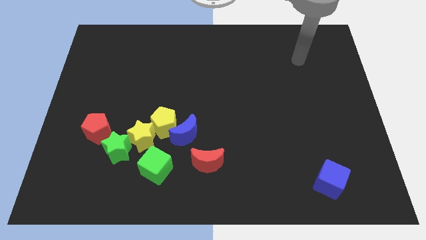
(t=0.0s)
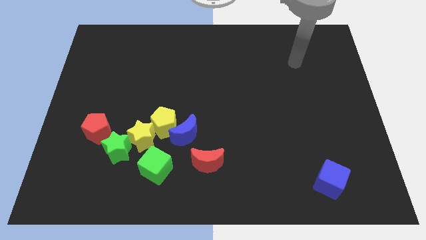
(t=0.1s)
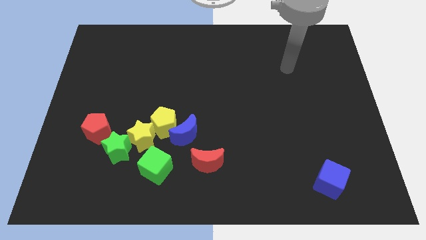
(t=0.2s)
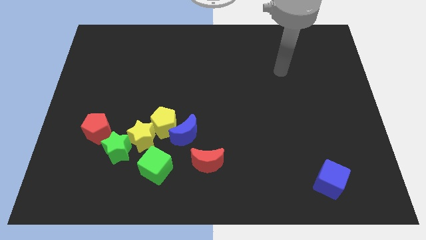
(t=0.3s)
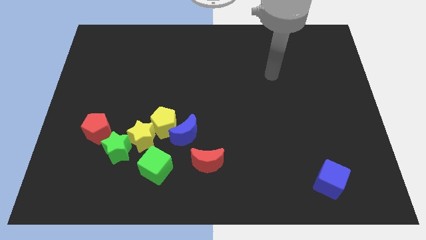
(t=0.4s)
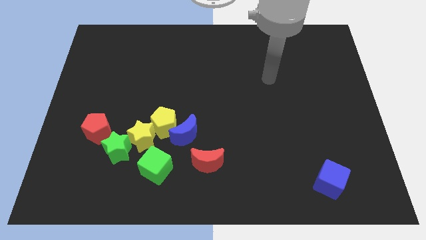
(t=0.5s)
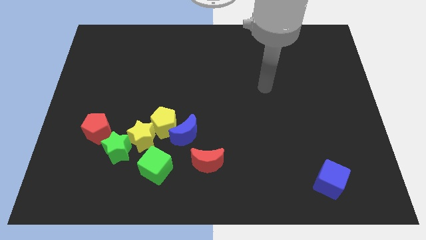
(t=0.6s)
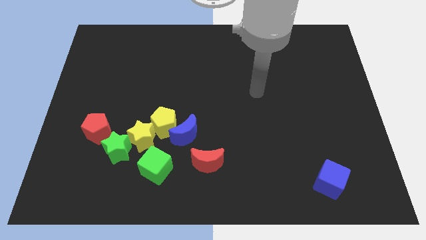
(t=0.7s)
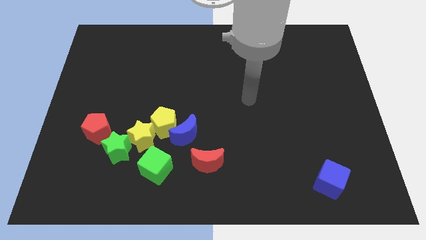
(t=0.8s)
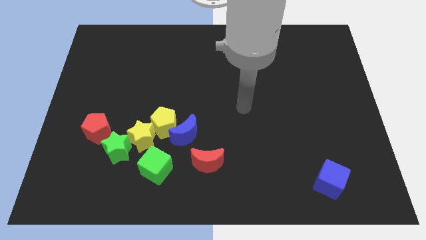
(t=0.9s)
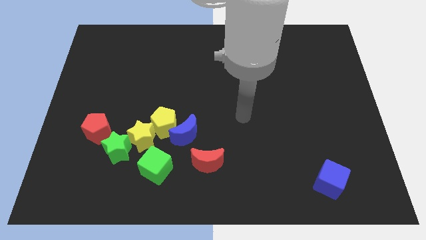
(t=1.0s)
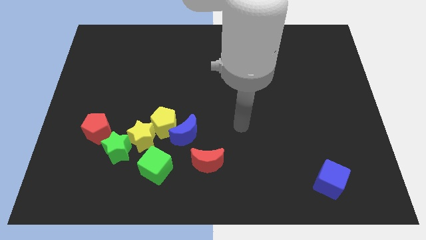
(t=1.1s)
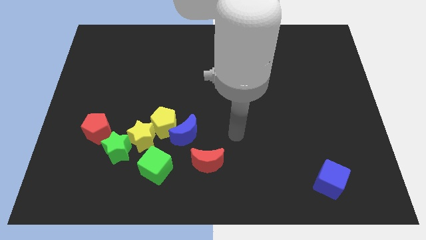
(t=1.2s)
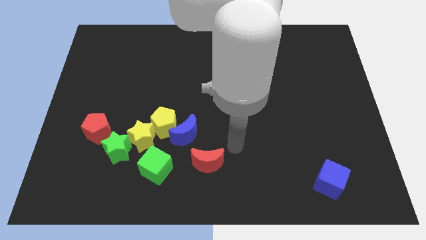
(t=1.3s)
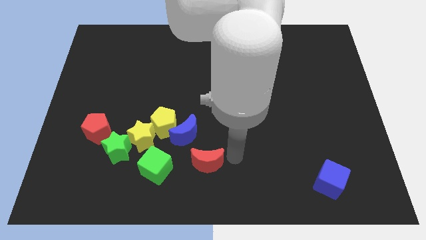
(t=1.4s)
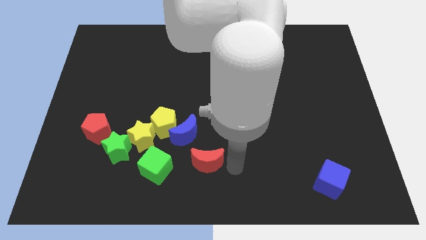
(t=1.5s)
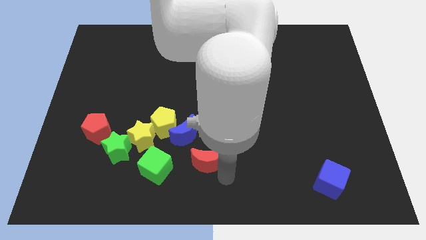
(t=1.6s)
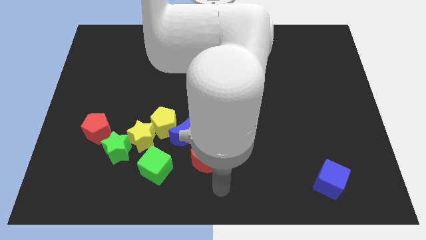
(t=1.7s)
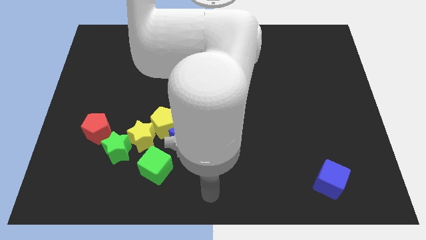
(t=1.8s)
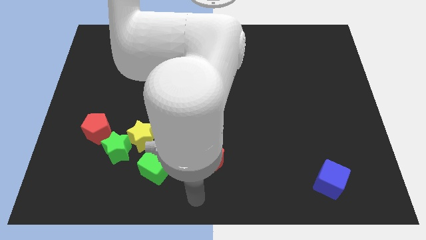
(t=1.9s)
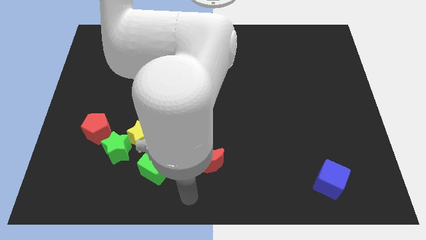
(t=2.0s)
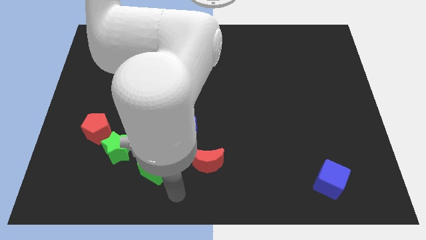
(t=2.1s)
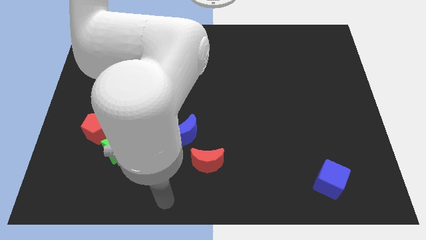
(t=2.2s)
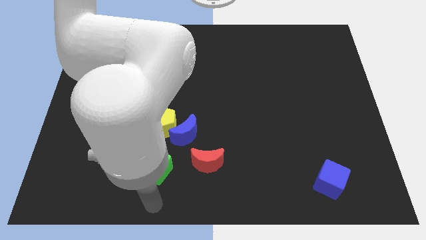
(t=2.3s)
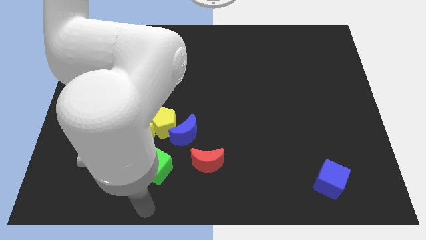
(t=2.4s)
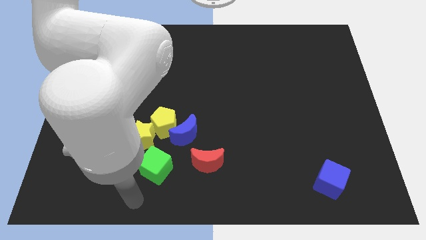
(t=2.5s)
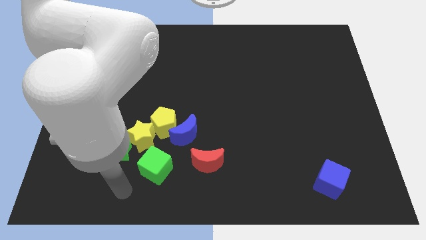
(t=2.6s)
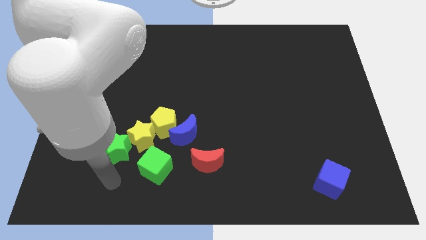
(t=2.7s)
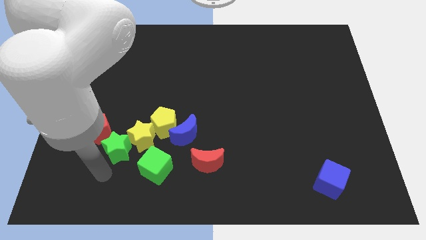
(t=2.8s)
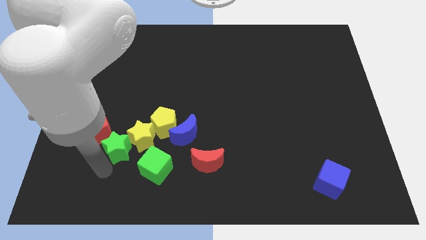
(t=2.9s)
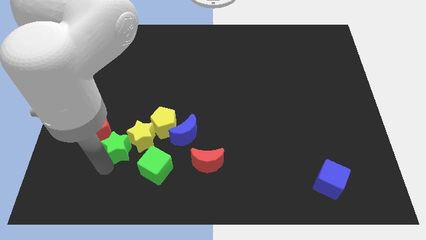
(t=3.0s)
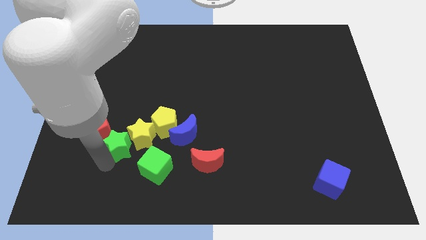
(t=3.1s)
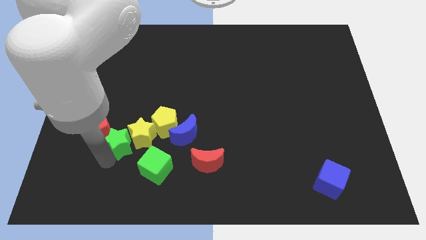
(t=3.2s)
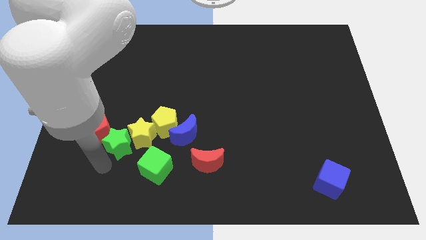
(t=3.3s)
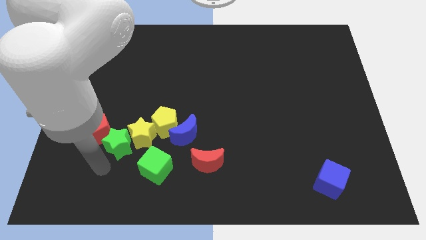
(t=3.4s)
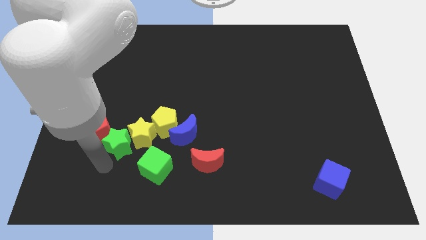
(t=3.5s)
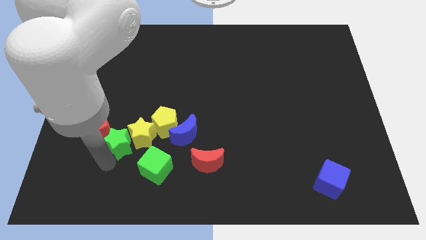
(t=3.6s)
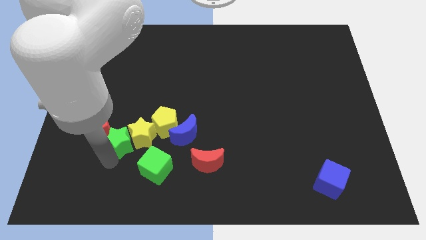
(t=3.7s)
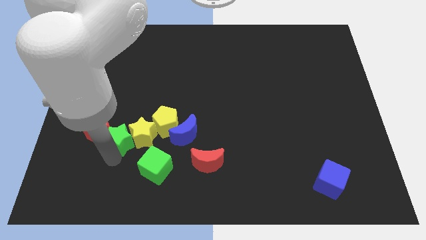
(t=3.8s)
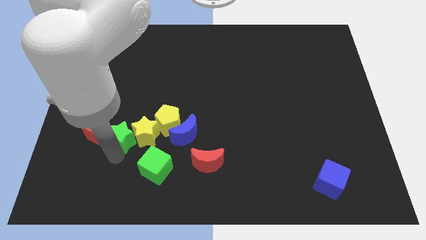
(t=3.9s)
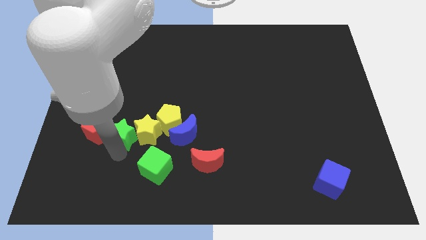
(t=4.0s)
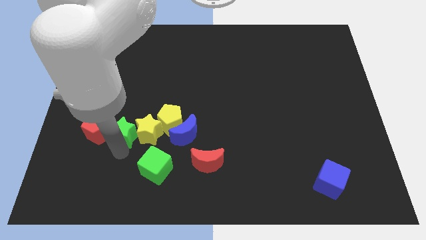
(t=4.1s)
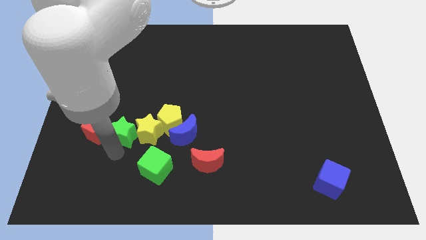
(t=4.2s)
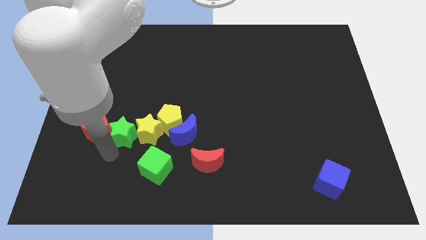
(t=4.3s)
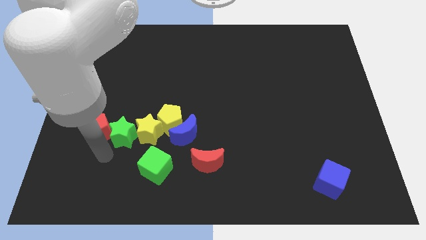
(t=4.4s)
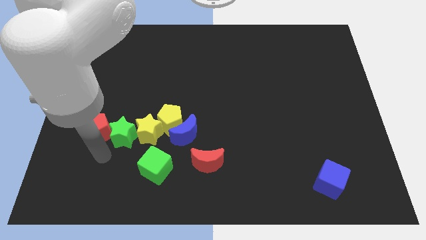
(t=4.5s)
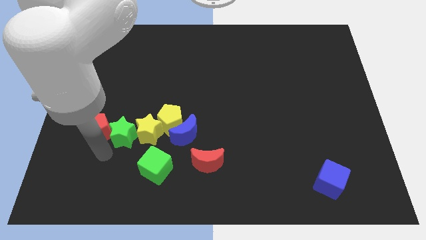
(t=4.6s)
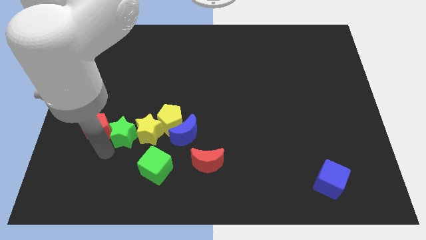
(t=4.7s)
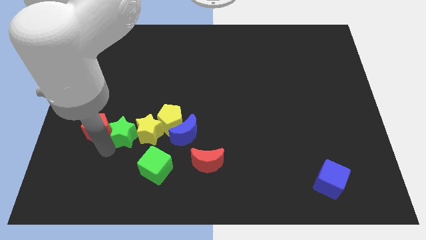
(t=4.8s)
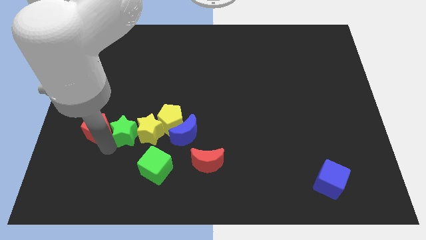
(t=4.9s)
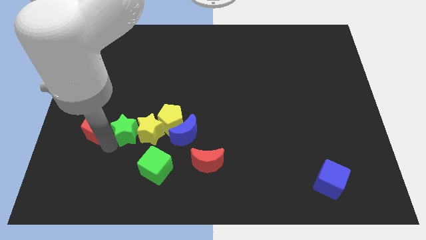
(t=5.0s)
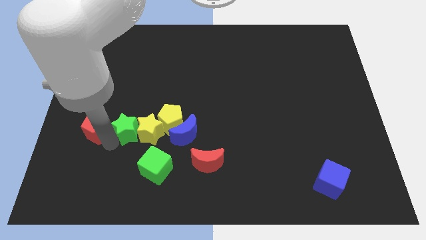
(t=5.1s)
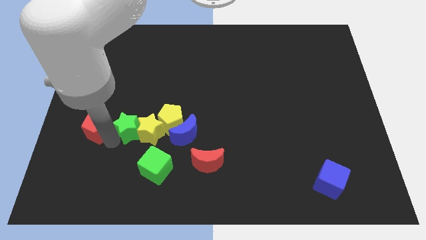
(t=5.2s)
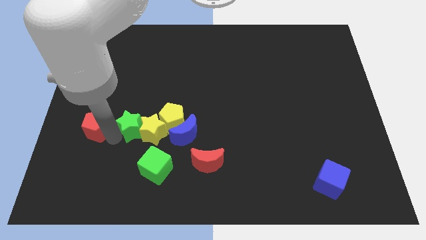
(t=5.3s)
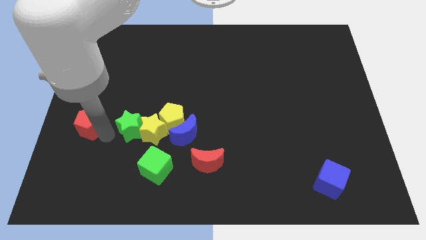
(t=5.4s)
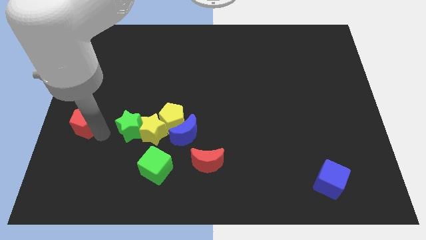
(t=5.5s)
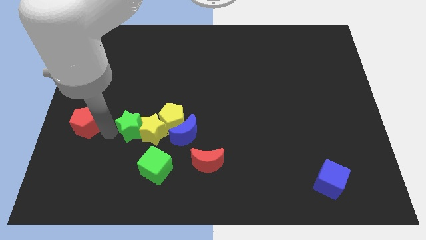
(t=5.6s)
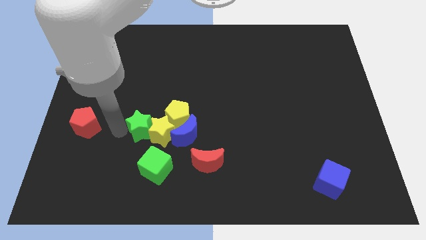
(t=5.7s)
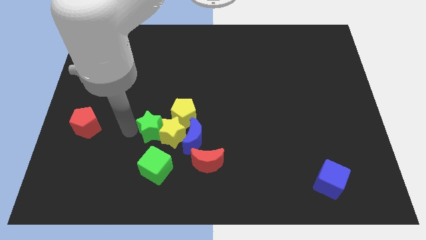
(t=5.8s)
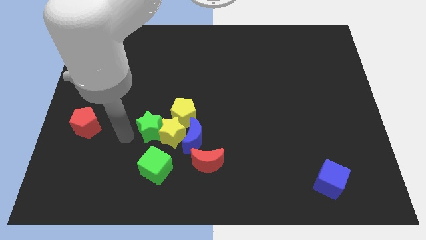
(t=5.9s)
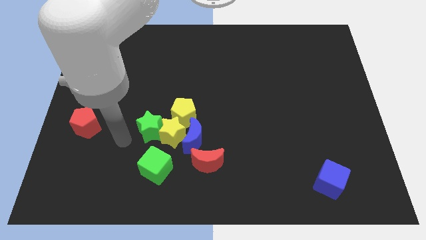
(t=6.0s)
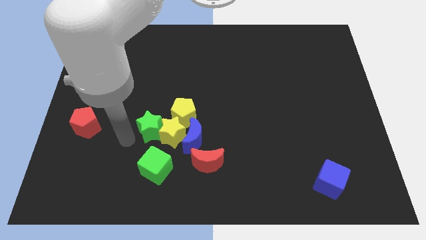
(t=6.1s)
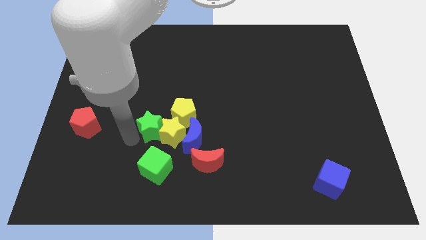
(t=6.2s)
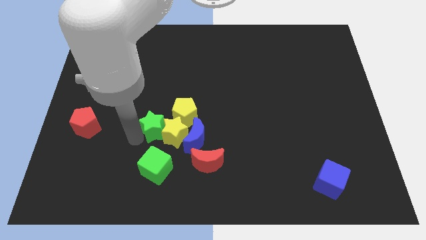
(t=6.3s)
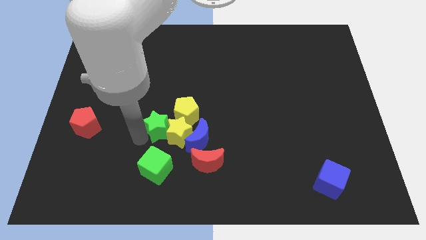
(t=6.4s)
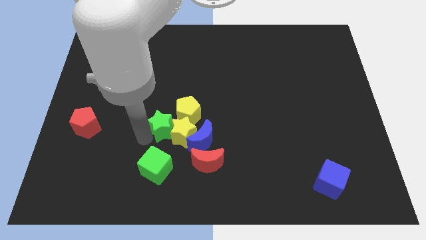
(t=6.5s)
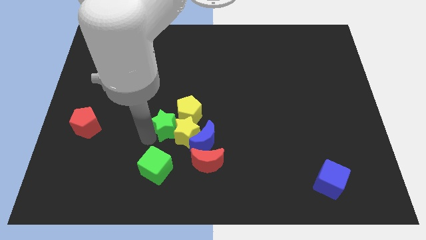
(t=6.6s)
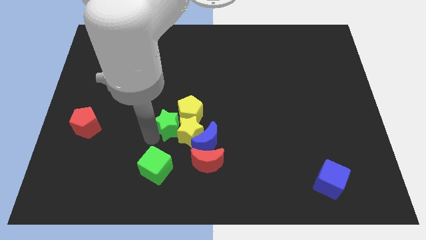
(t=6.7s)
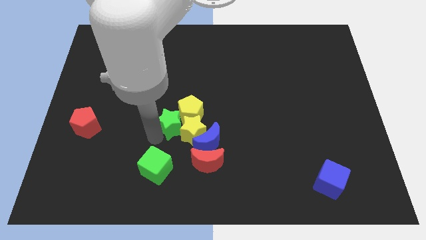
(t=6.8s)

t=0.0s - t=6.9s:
push the green star towards the yellow pentagon

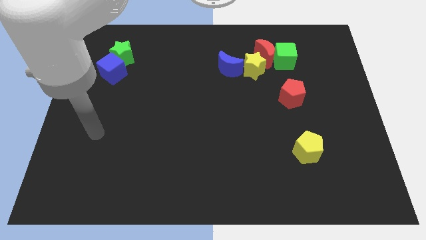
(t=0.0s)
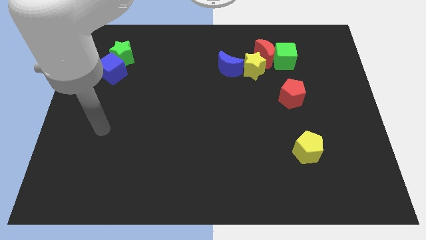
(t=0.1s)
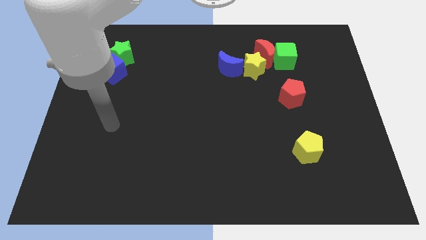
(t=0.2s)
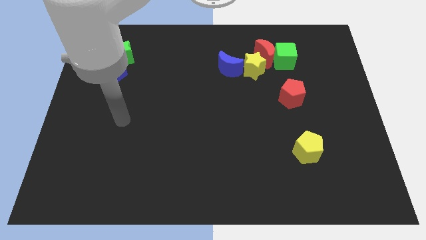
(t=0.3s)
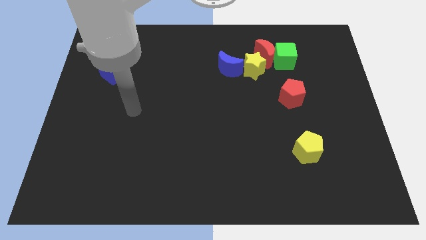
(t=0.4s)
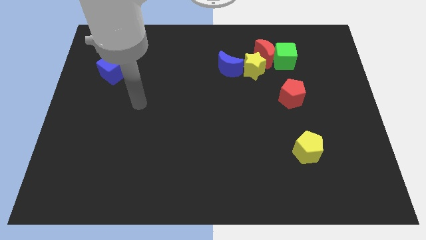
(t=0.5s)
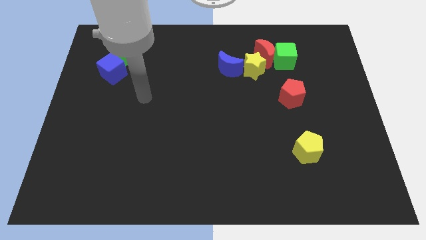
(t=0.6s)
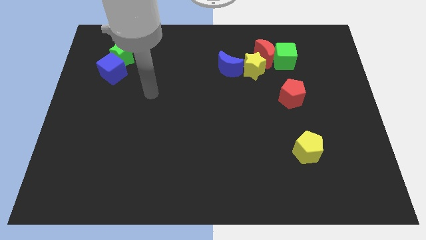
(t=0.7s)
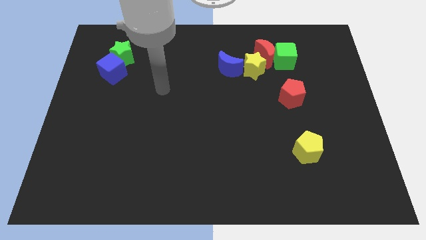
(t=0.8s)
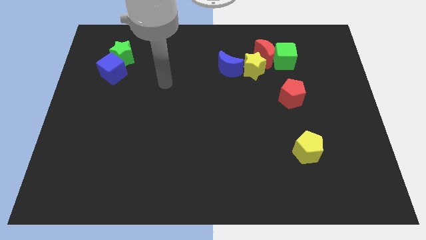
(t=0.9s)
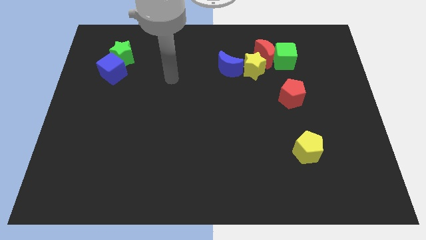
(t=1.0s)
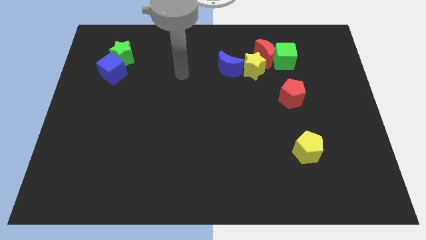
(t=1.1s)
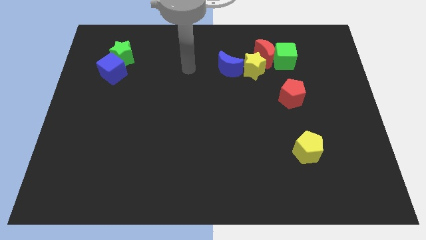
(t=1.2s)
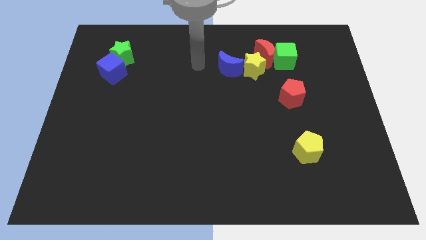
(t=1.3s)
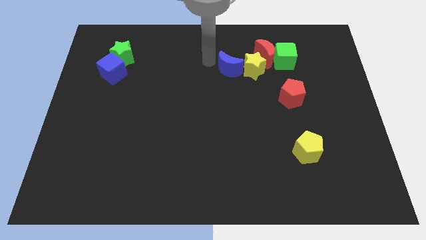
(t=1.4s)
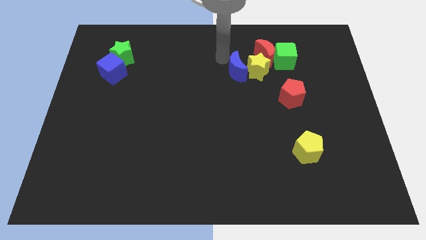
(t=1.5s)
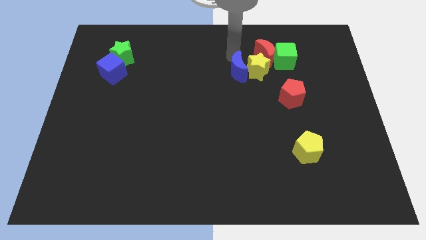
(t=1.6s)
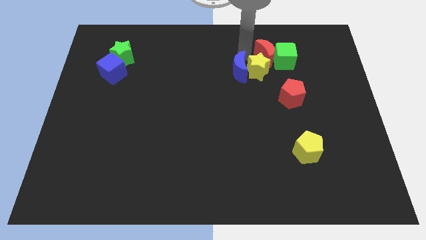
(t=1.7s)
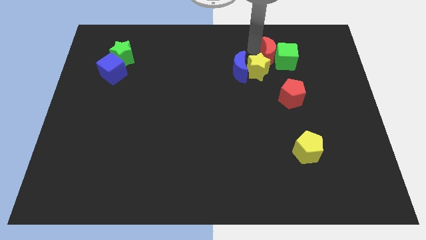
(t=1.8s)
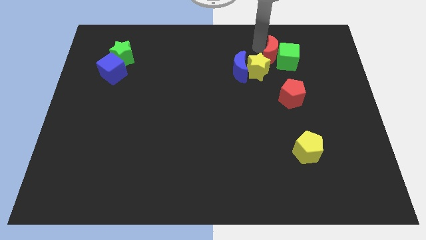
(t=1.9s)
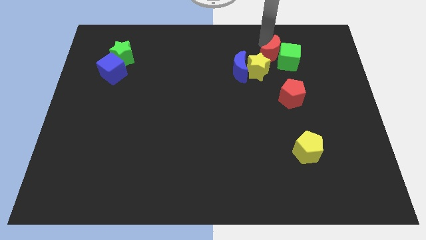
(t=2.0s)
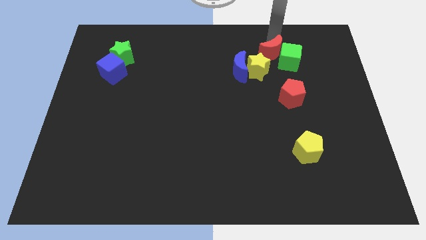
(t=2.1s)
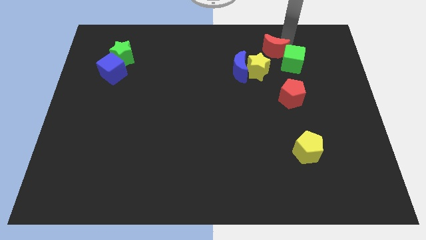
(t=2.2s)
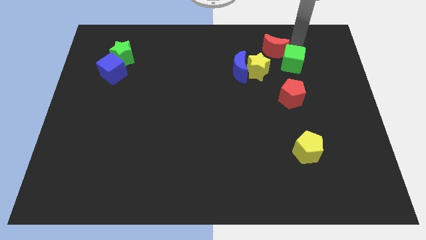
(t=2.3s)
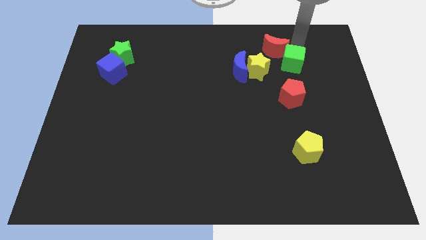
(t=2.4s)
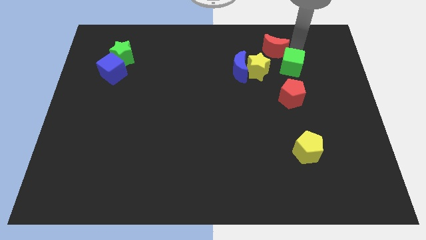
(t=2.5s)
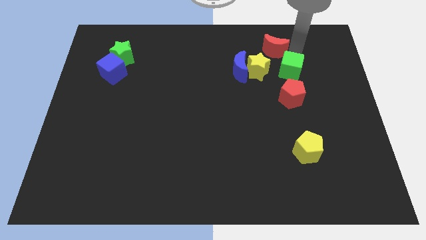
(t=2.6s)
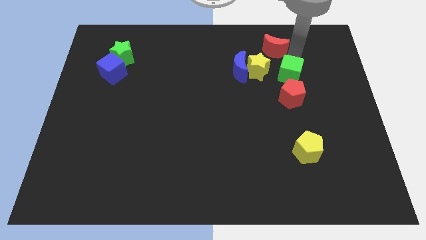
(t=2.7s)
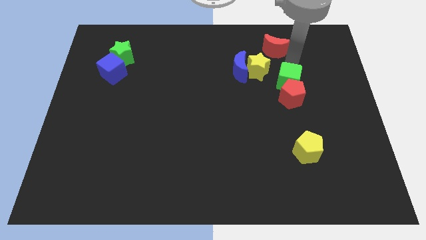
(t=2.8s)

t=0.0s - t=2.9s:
move the green cube towards the red pentagon
